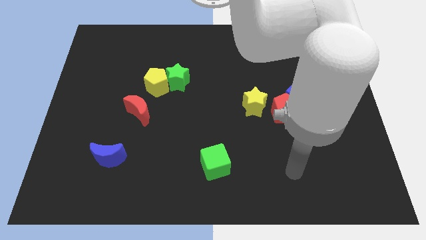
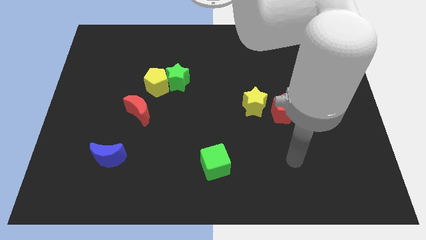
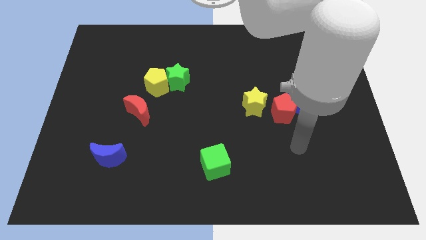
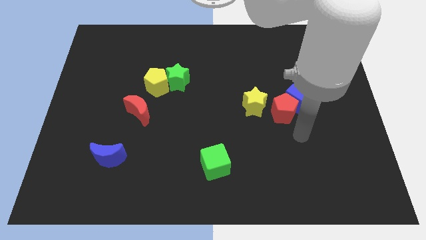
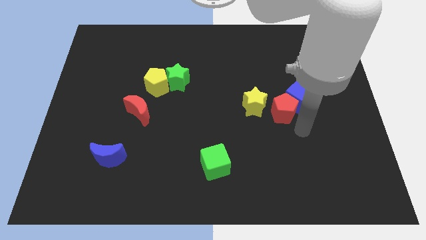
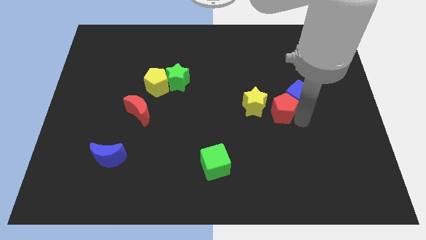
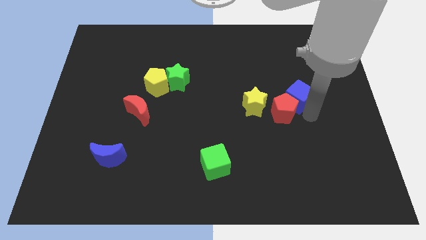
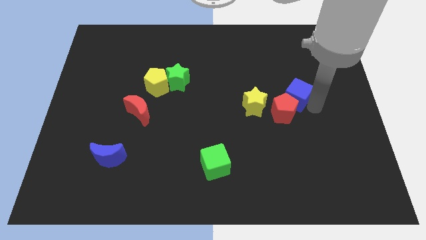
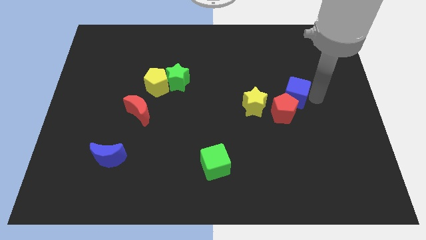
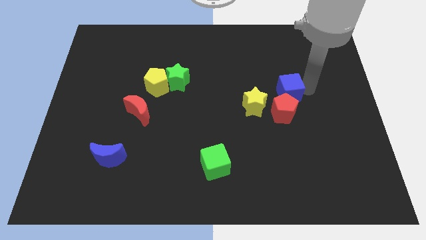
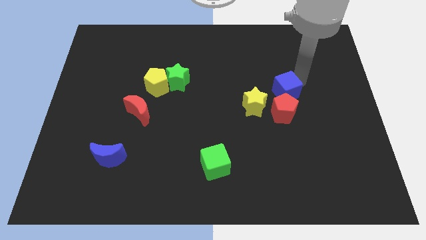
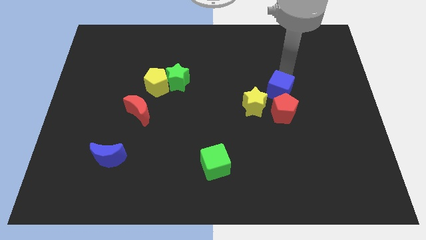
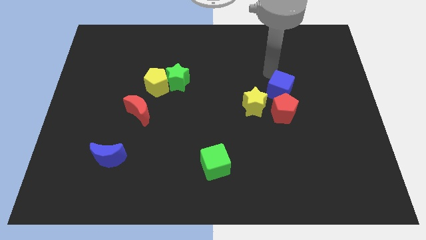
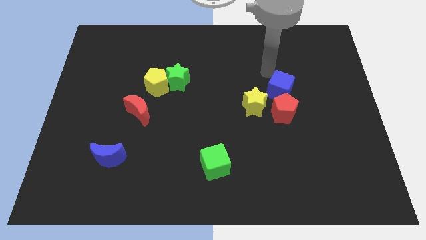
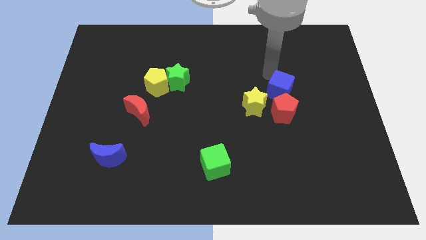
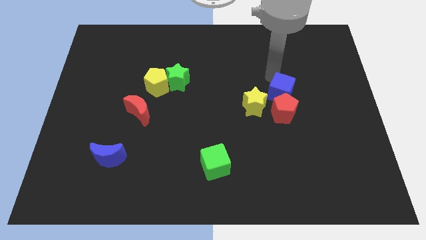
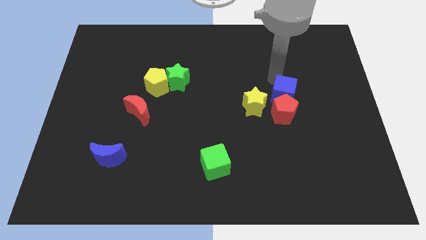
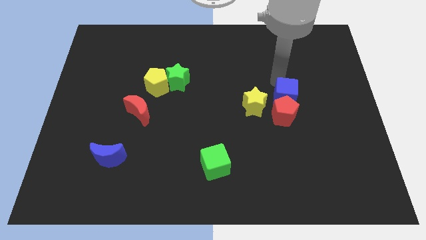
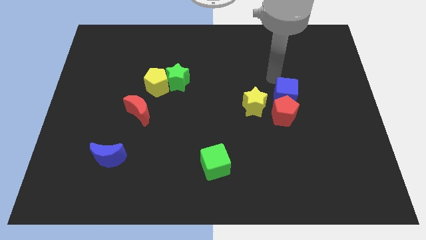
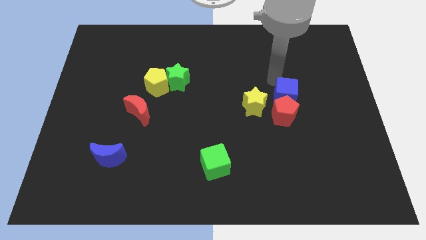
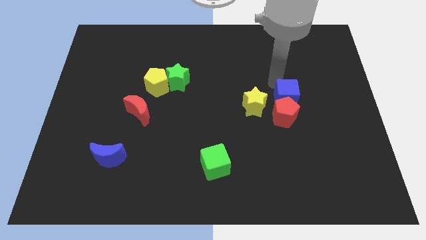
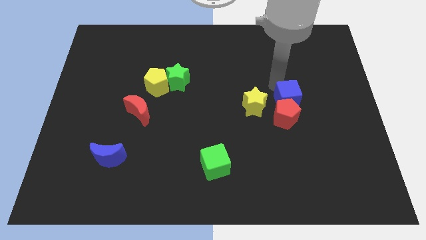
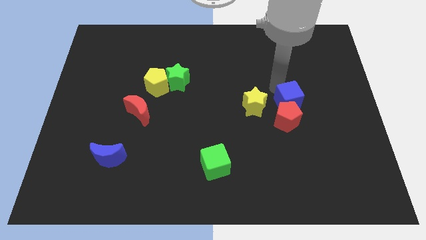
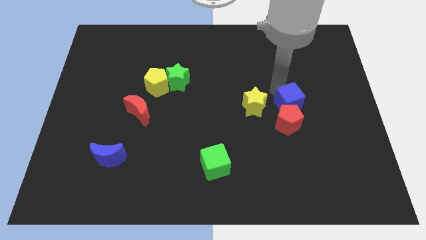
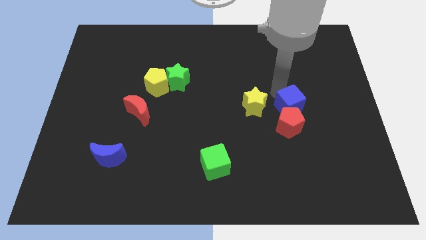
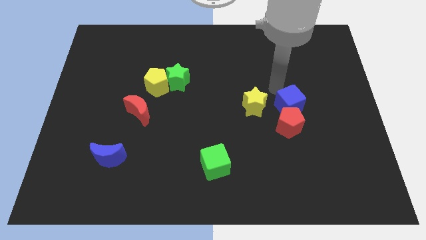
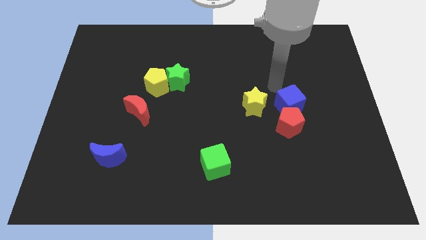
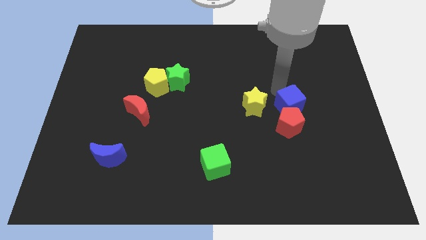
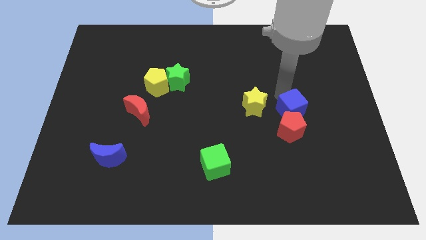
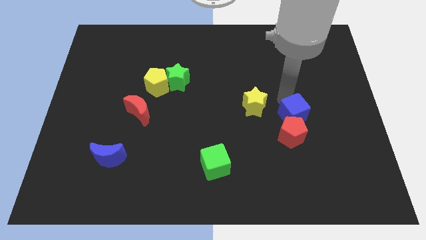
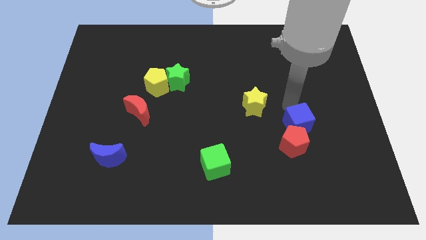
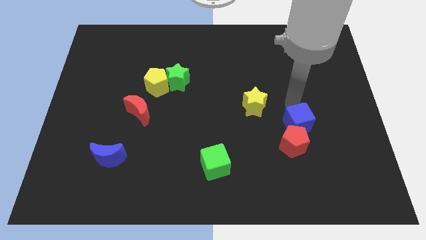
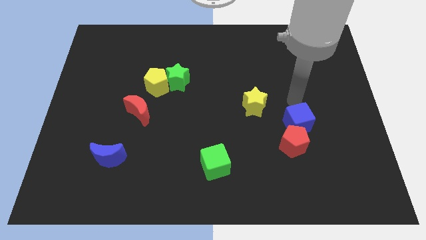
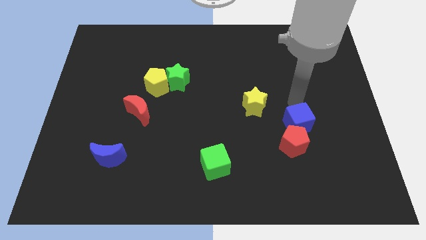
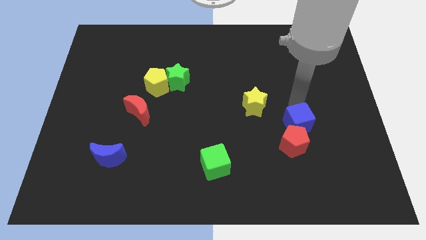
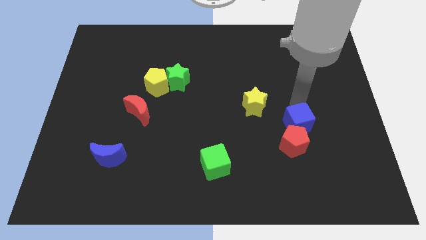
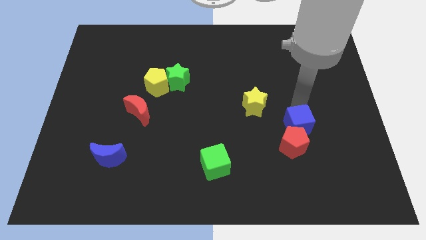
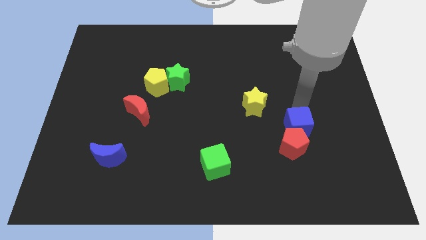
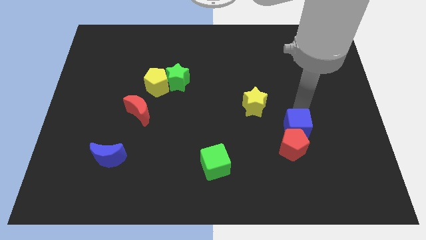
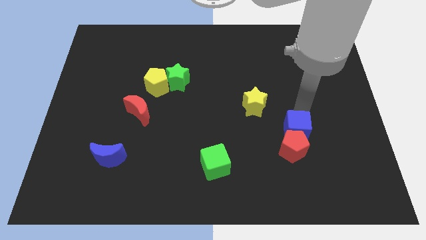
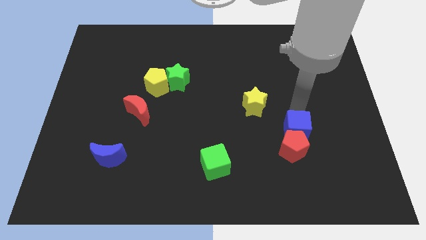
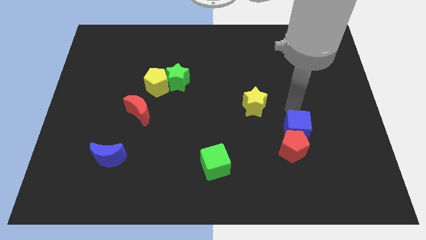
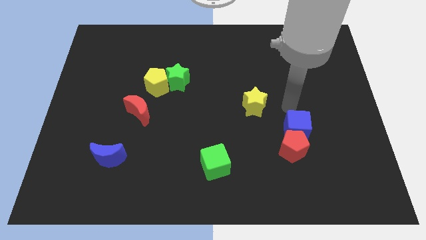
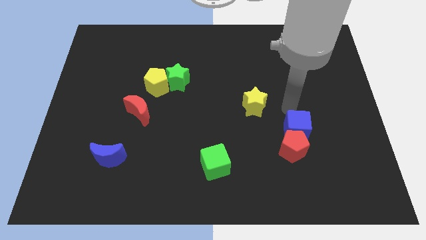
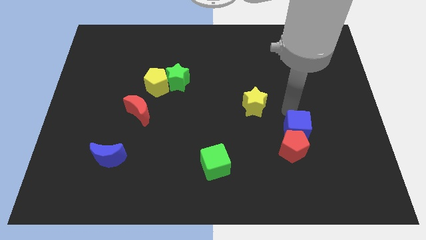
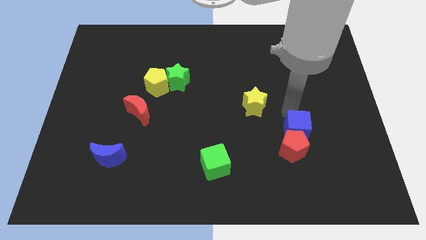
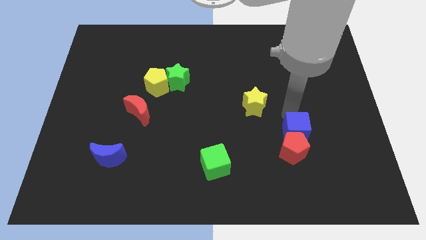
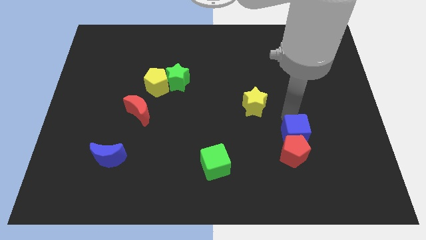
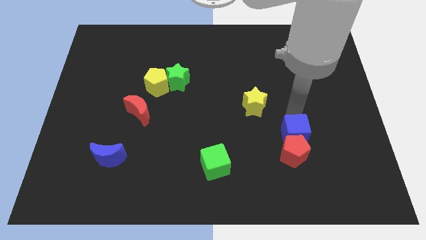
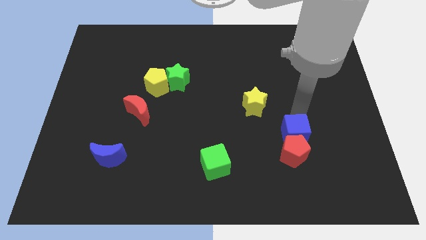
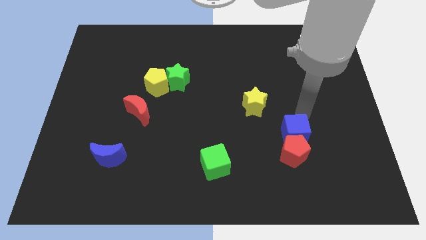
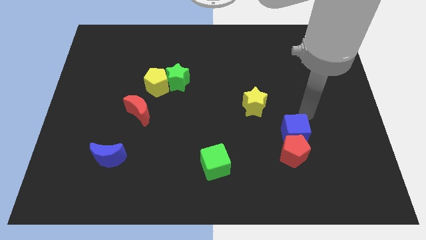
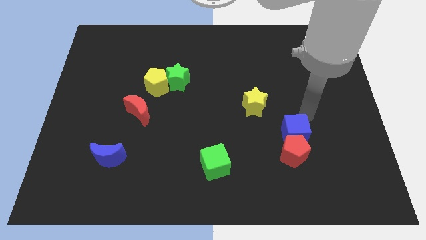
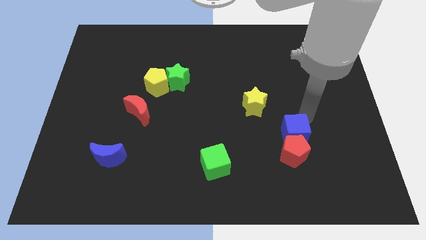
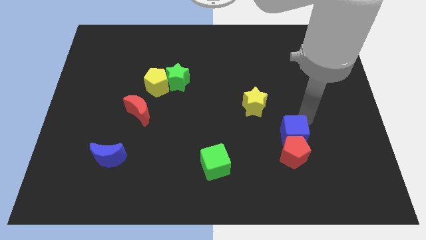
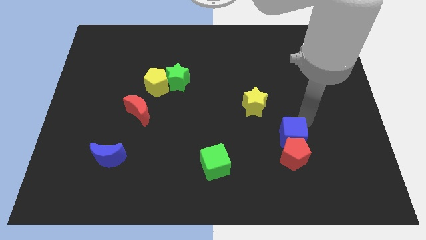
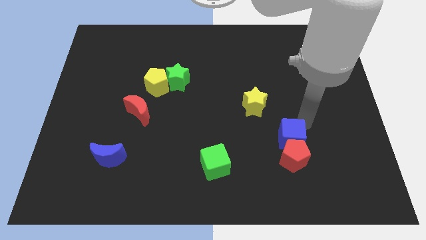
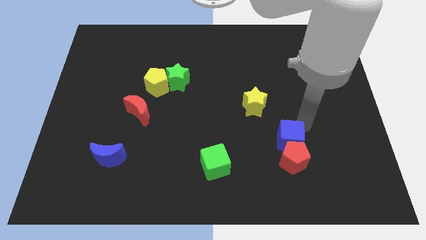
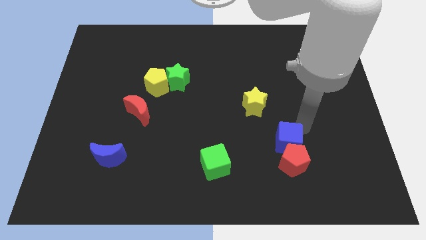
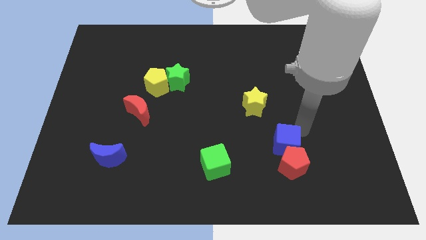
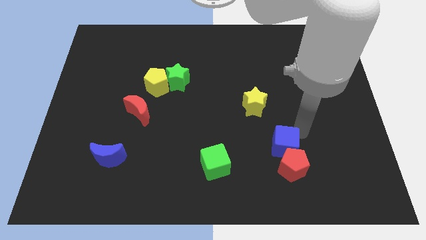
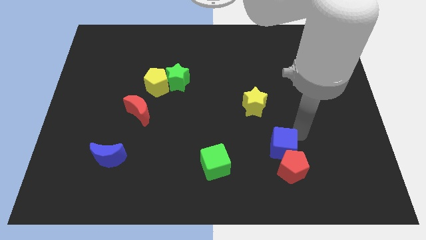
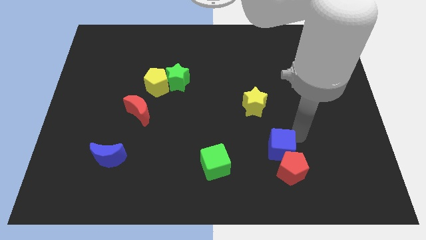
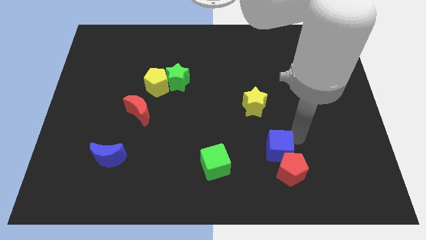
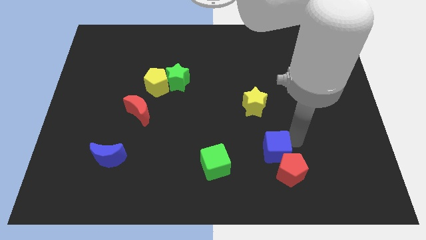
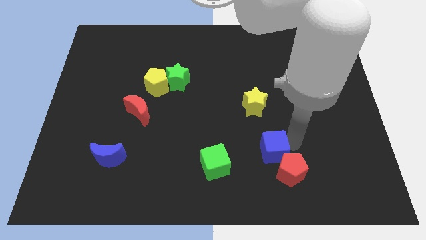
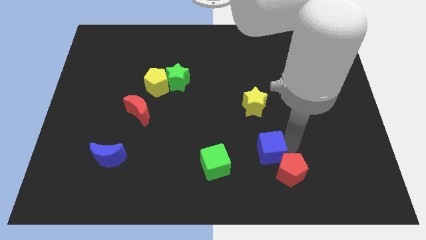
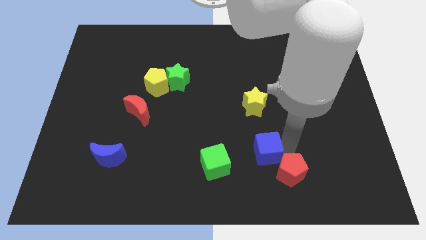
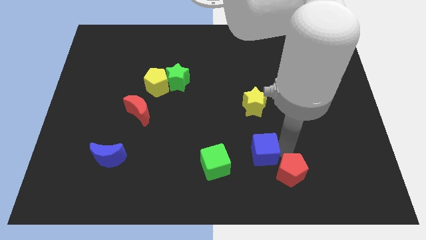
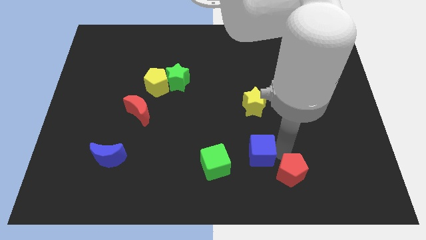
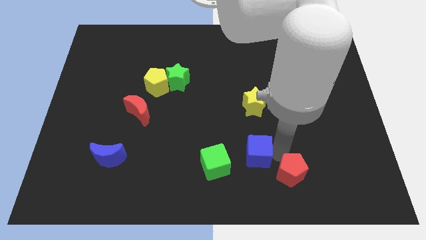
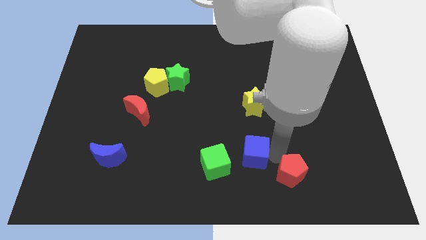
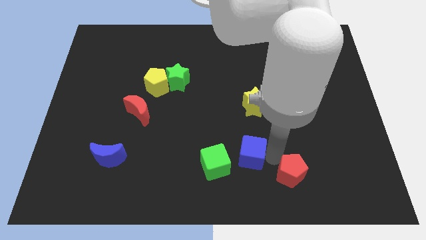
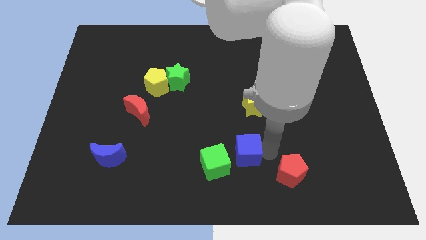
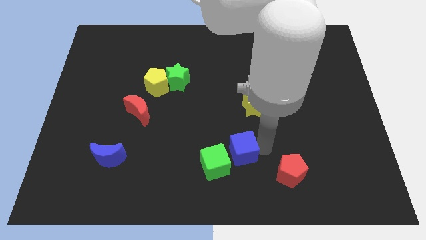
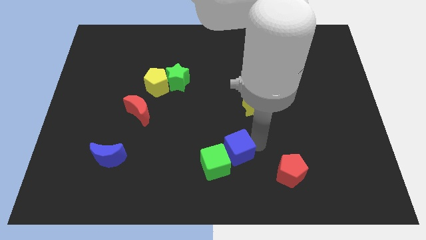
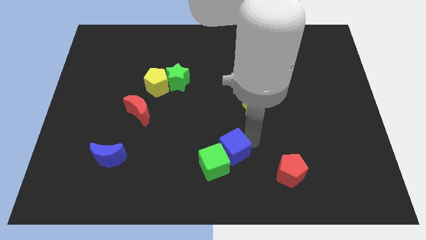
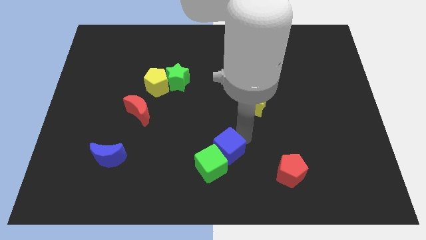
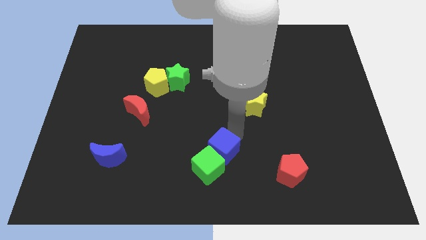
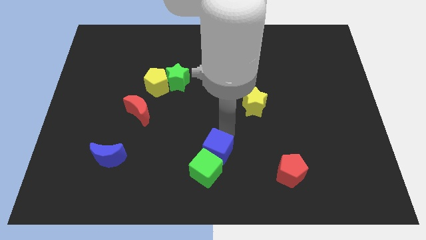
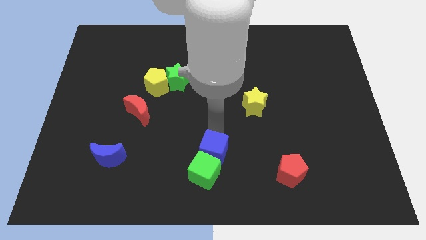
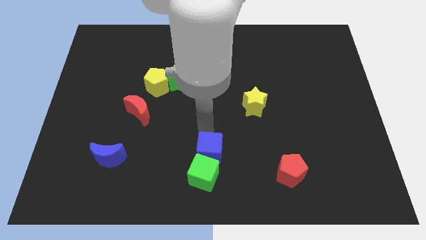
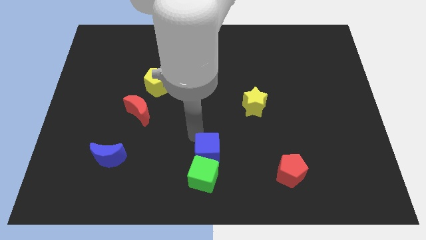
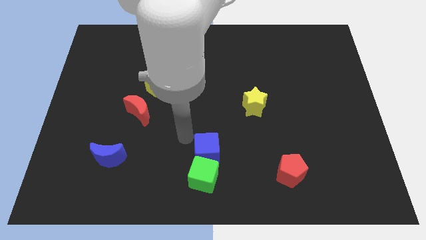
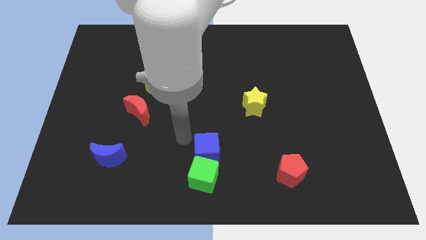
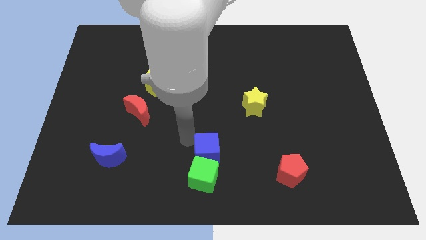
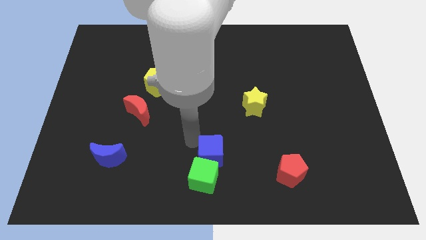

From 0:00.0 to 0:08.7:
push the blue cube to the bottom
